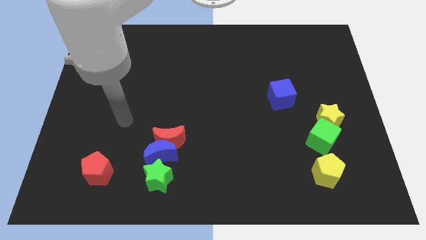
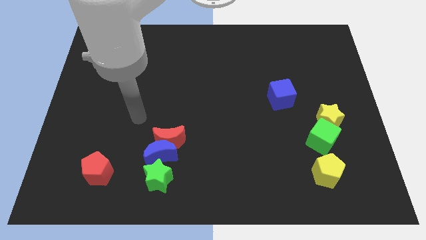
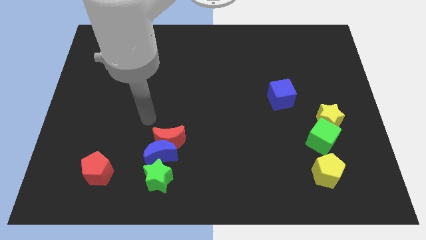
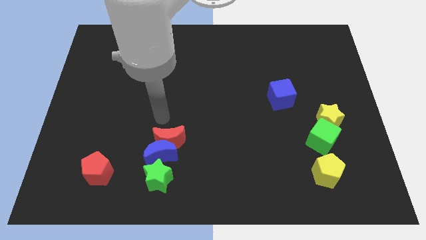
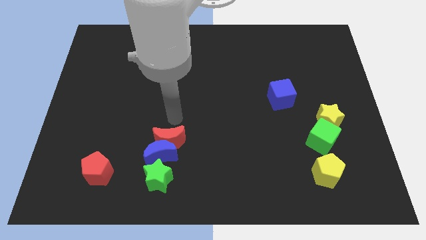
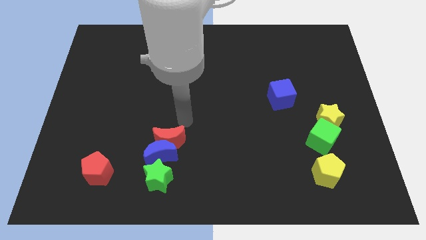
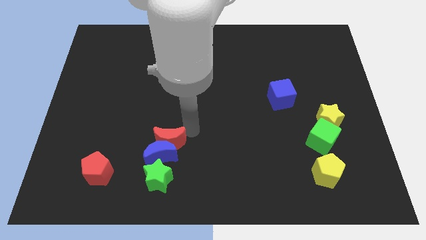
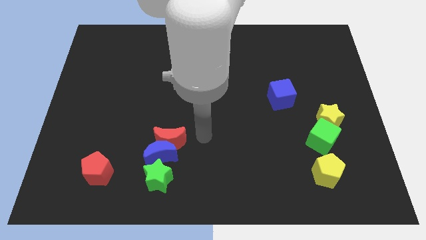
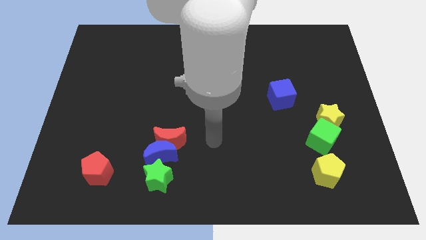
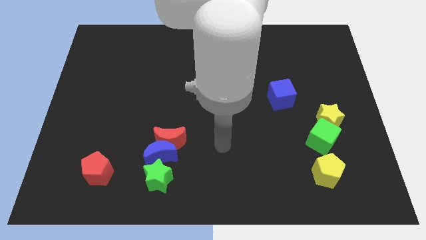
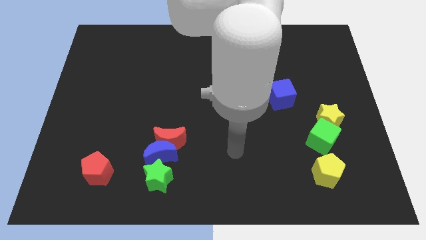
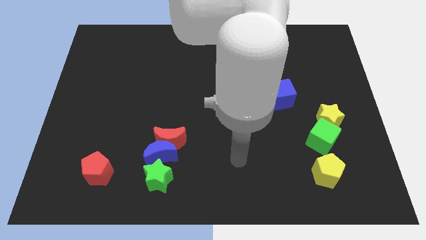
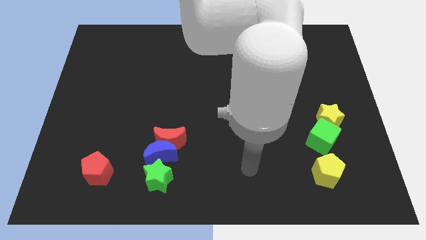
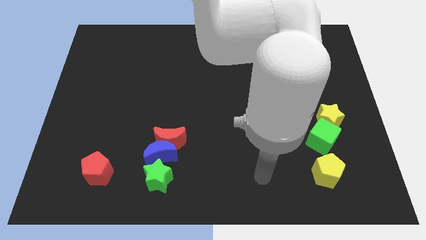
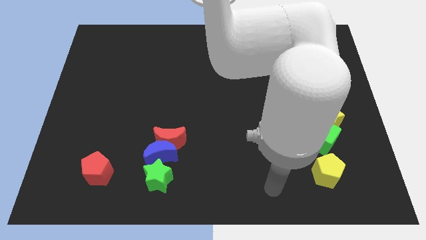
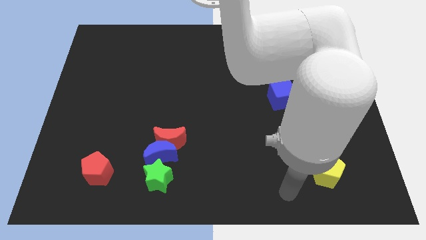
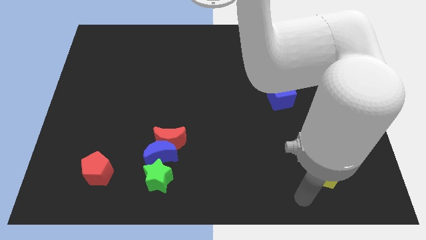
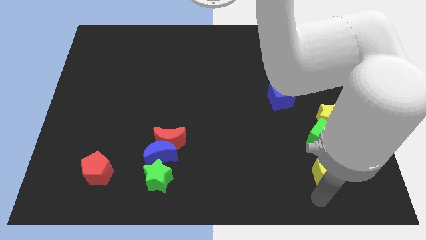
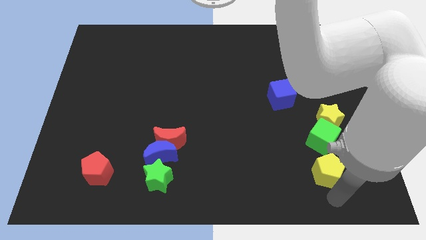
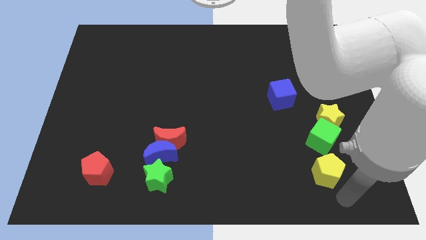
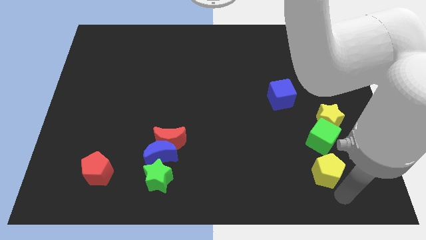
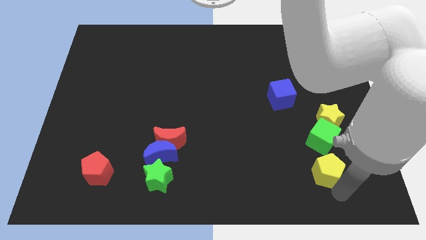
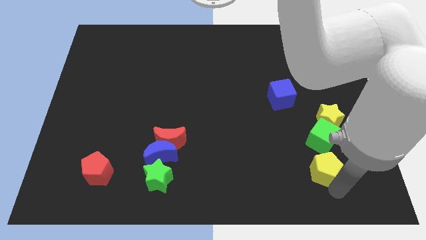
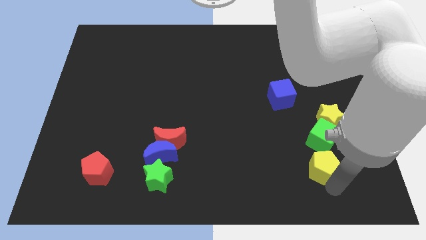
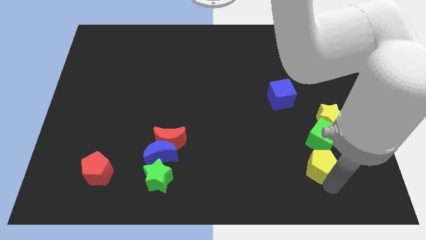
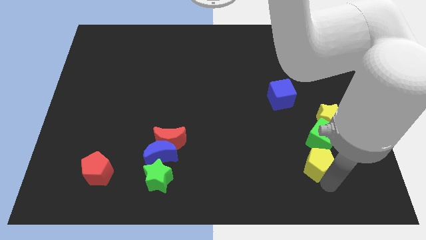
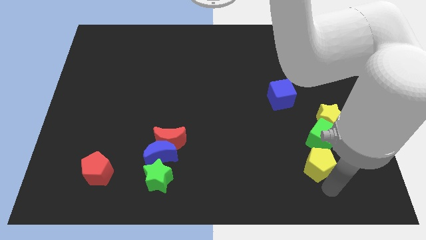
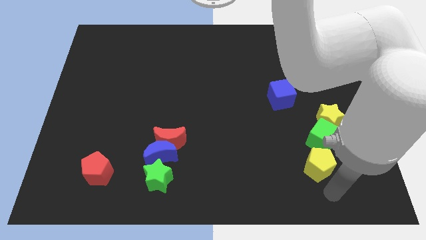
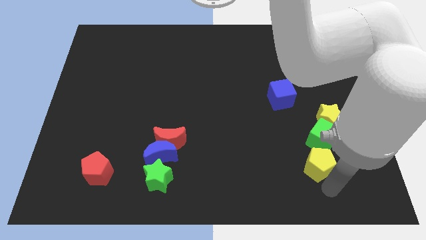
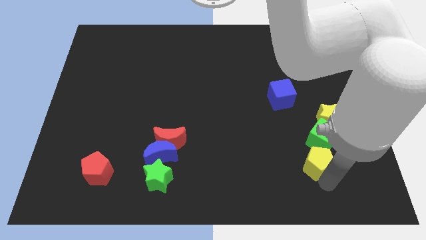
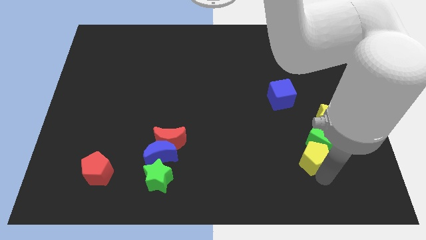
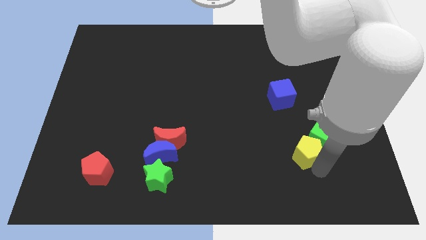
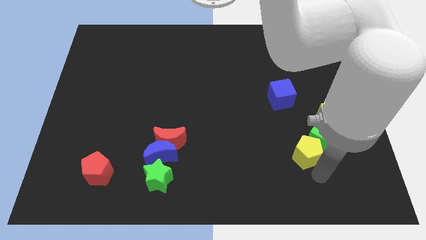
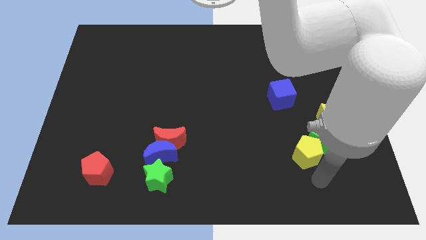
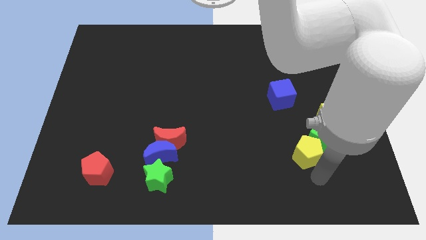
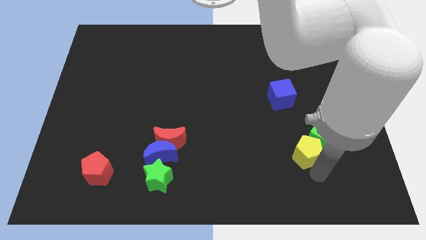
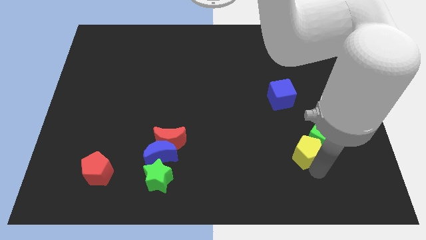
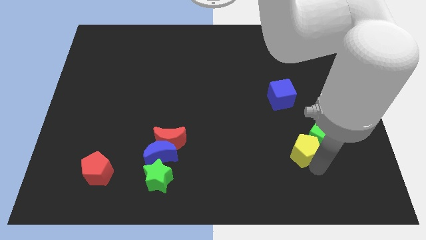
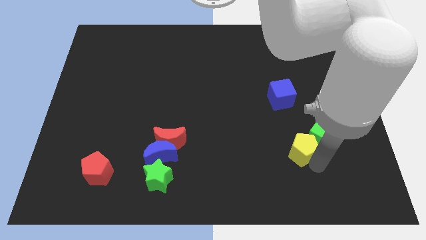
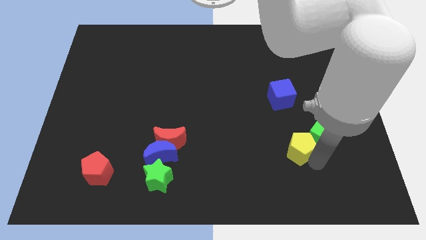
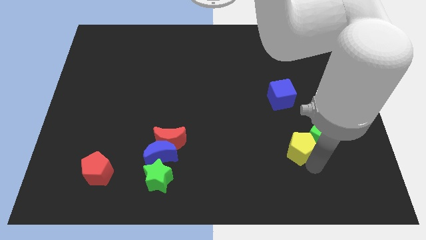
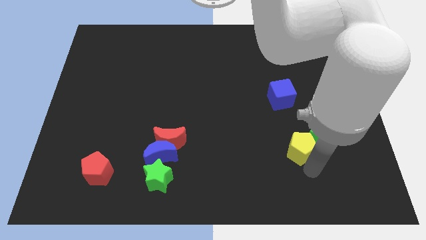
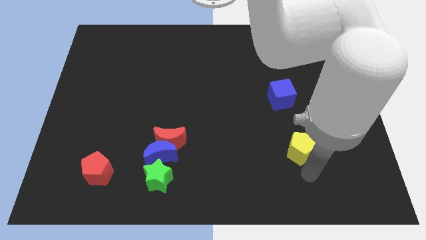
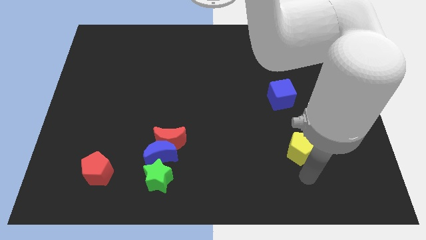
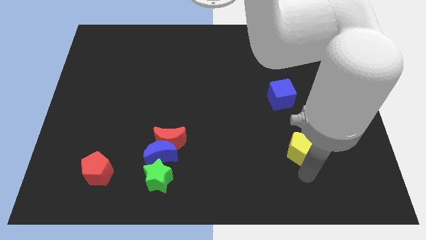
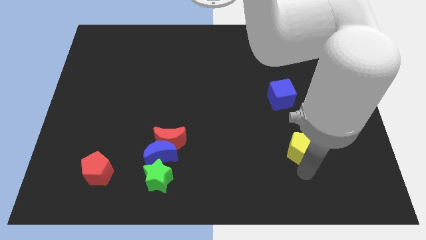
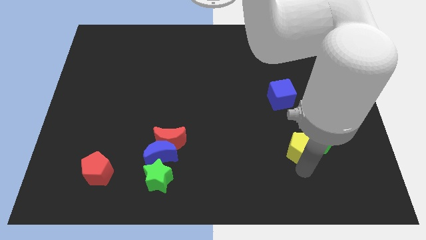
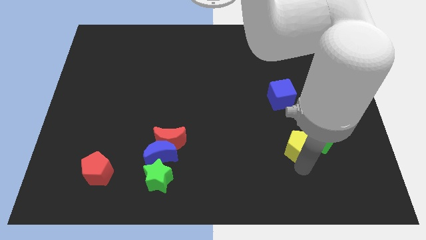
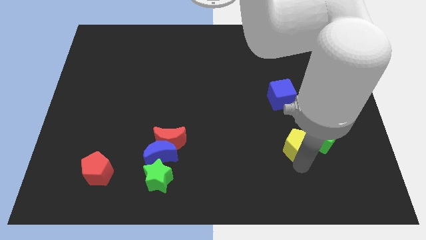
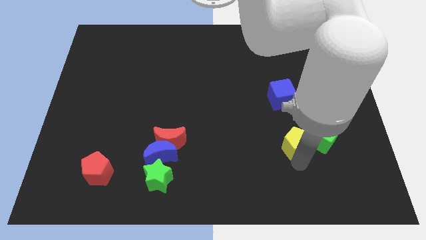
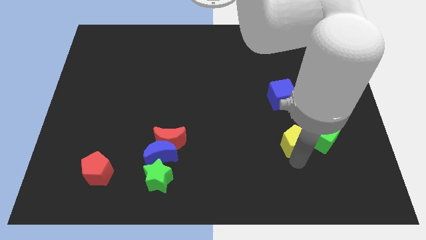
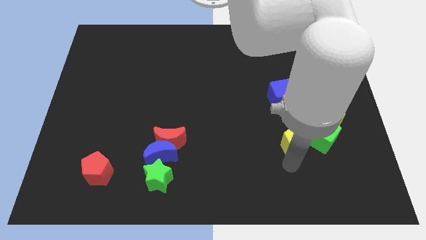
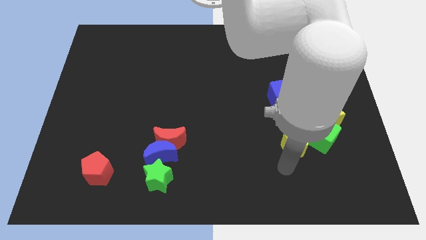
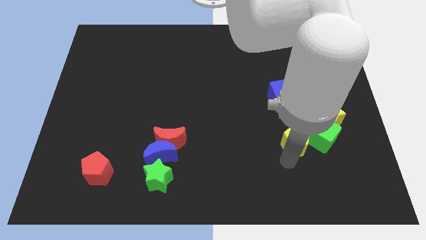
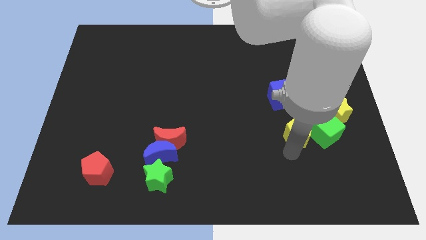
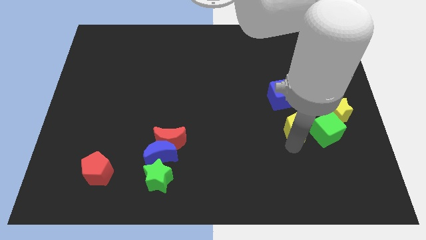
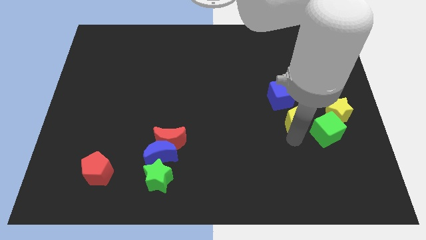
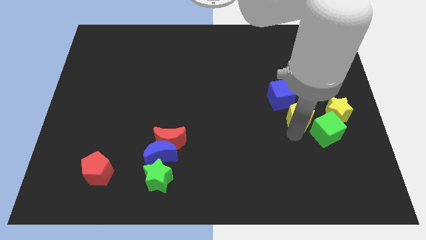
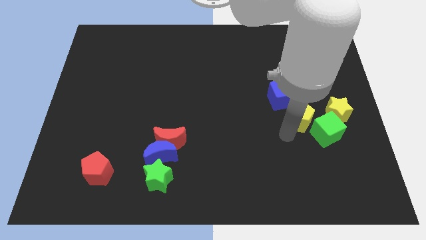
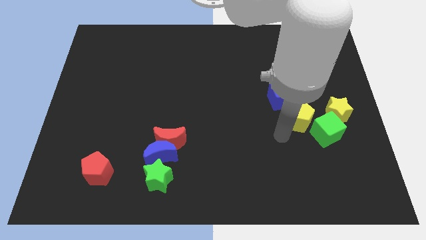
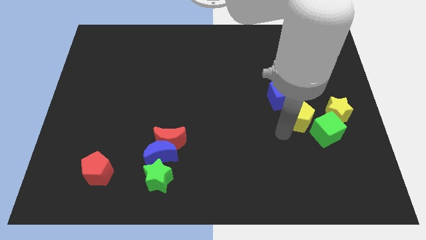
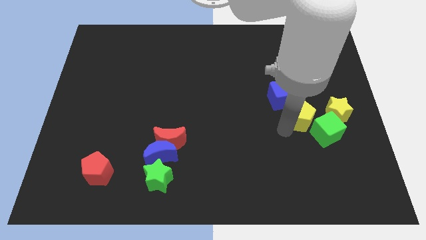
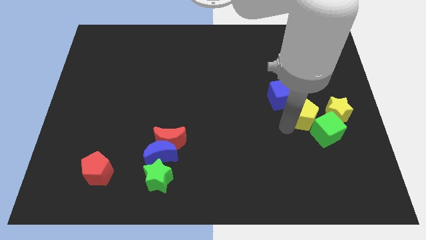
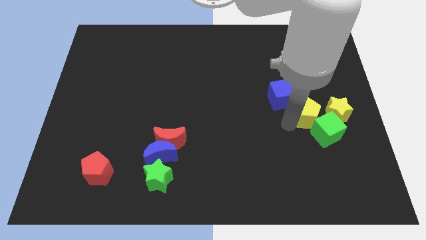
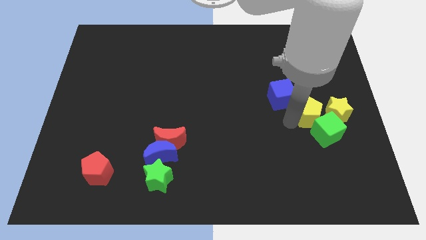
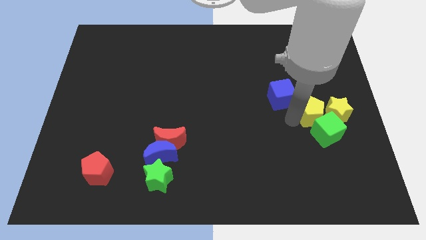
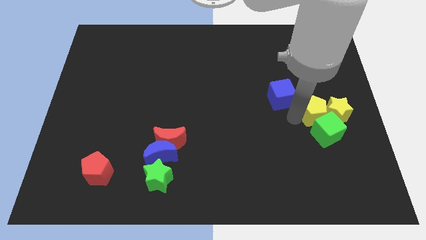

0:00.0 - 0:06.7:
put the yellow pentagon to the right side of the blue cube

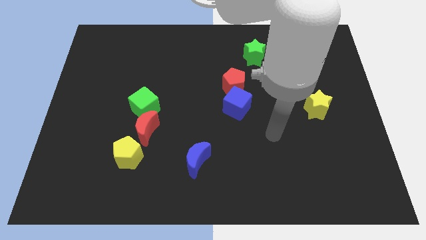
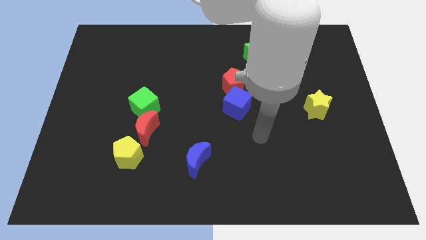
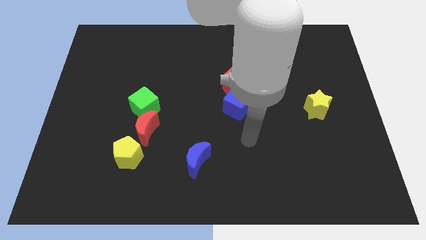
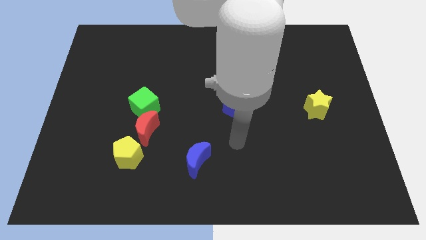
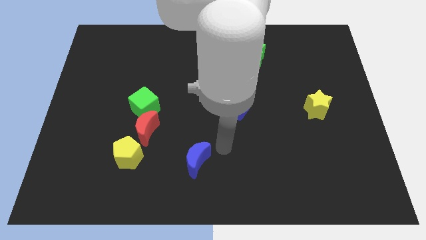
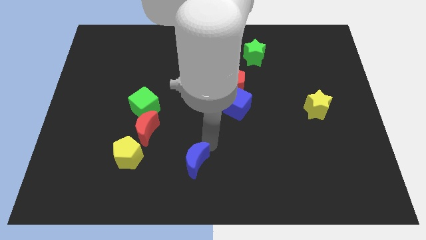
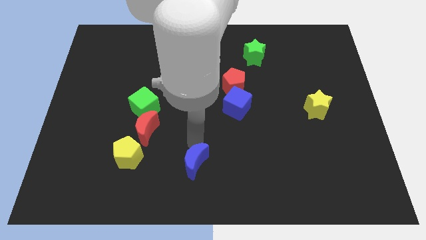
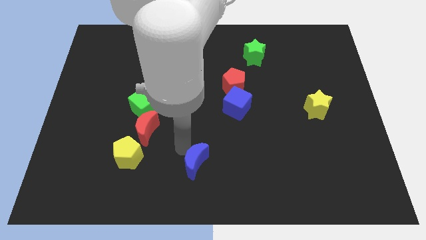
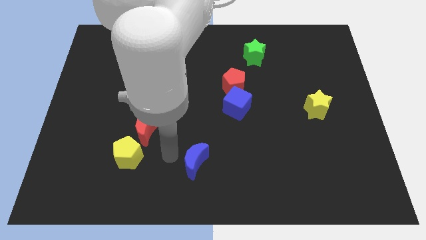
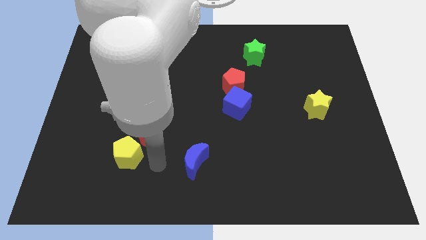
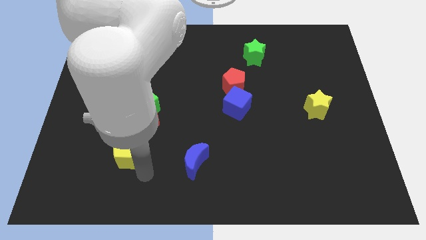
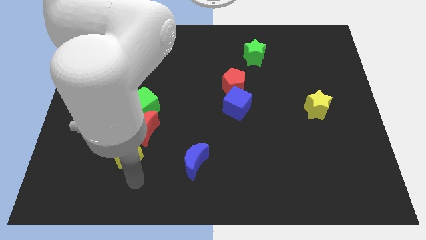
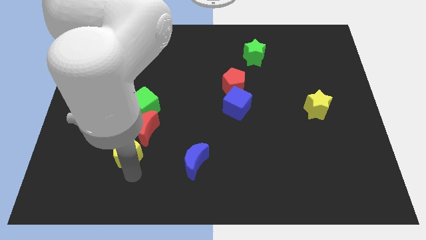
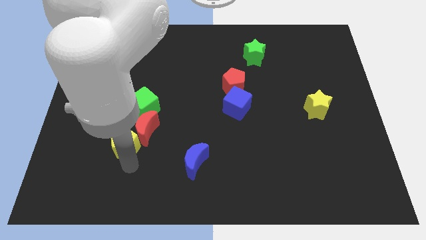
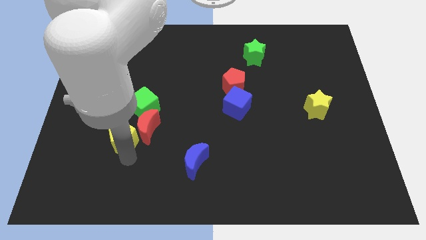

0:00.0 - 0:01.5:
slide the yellow pentagon diagonally down and to the left of the green cube
